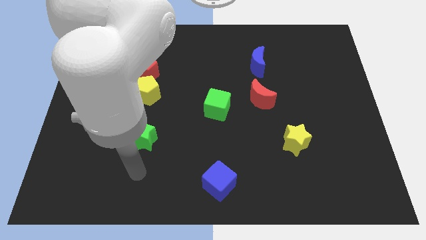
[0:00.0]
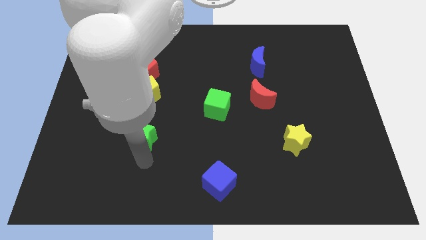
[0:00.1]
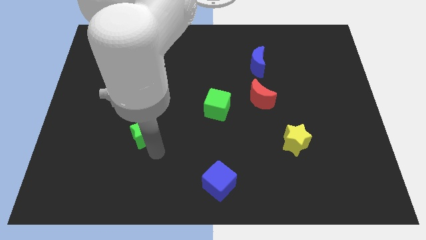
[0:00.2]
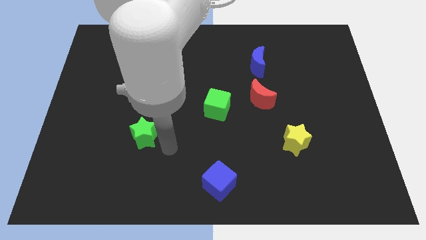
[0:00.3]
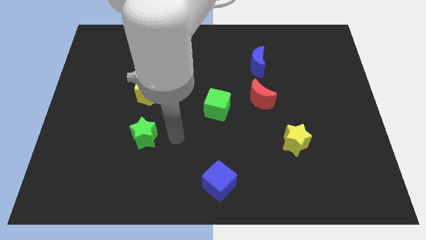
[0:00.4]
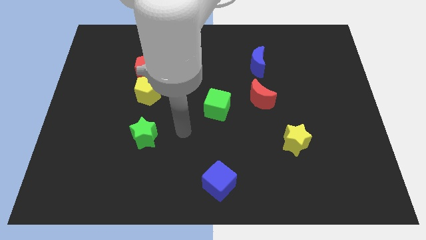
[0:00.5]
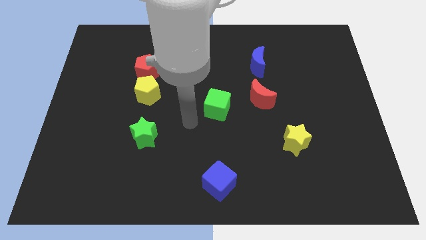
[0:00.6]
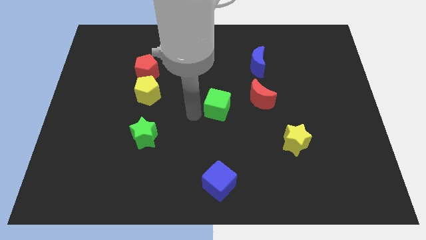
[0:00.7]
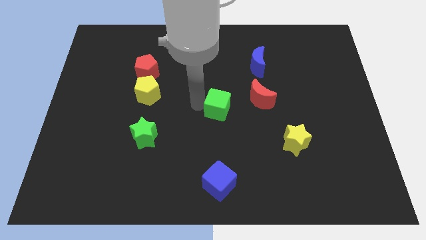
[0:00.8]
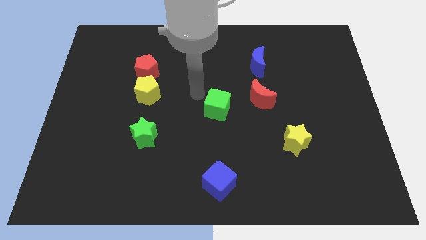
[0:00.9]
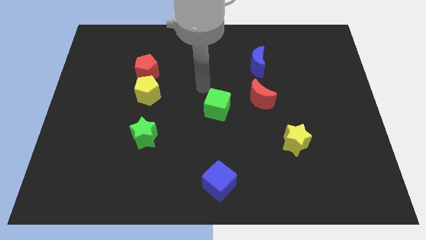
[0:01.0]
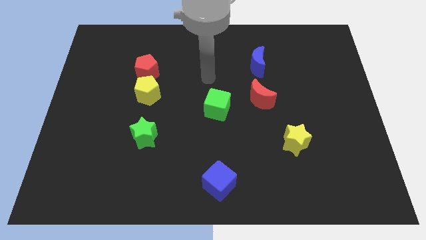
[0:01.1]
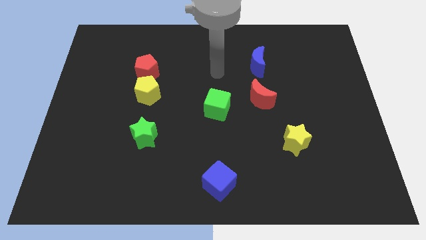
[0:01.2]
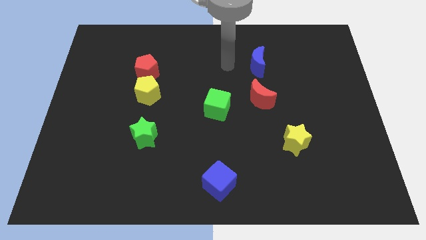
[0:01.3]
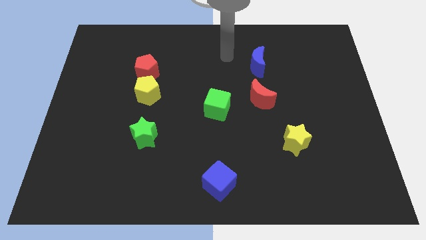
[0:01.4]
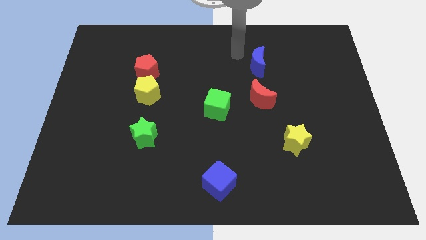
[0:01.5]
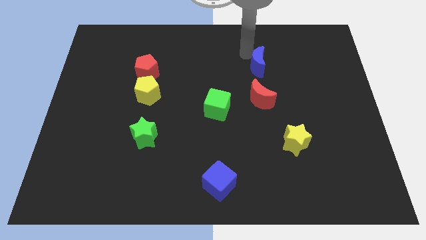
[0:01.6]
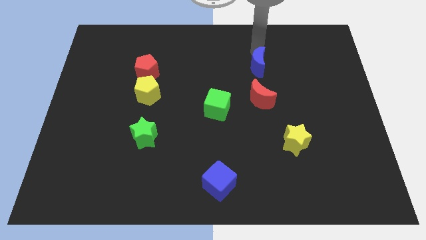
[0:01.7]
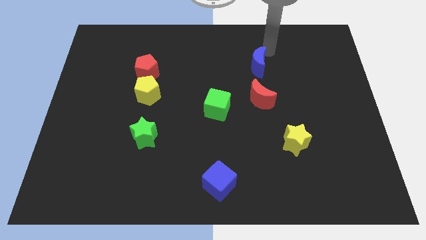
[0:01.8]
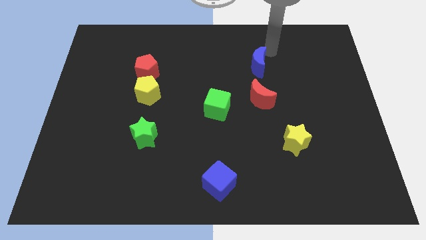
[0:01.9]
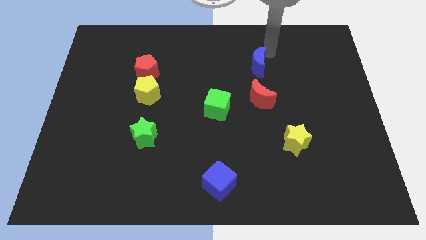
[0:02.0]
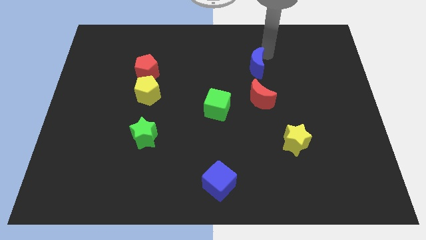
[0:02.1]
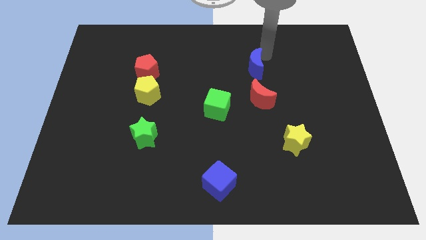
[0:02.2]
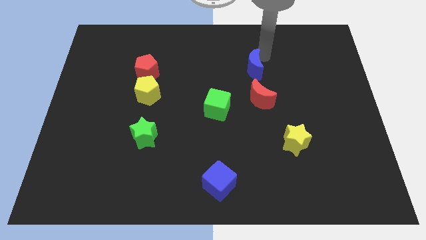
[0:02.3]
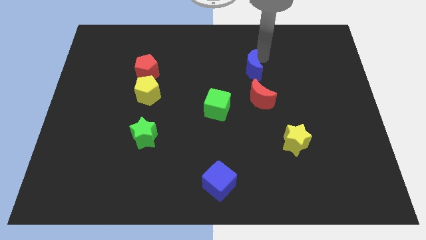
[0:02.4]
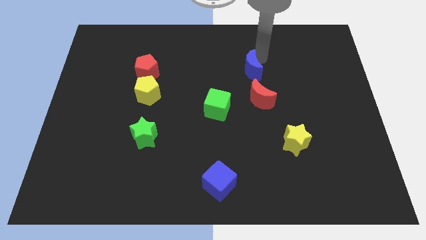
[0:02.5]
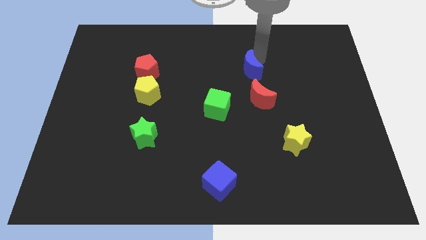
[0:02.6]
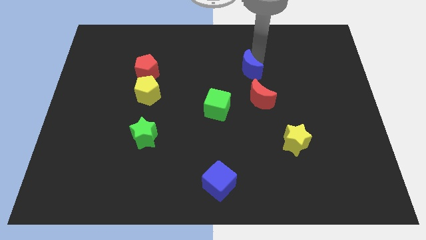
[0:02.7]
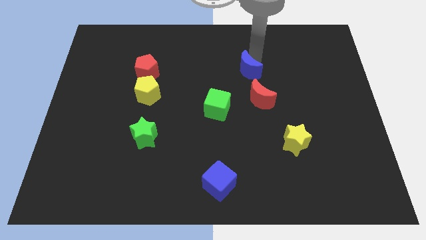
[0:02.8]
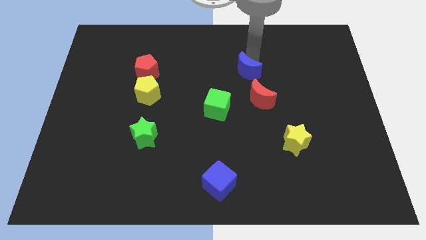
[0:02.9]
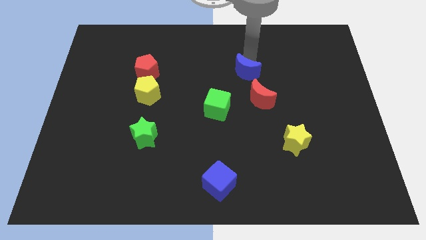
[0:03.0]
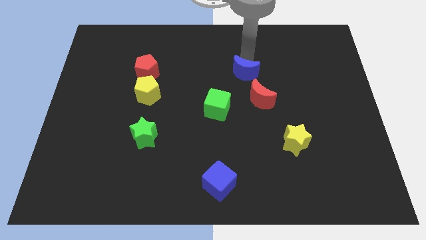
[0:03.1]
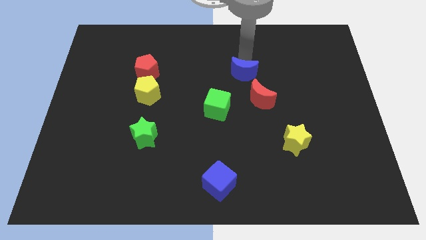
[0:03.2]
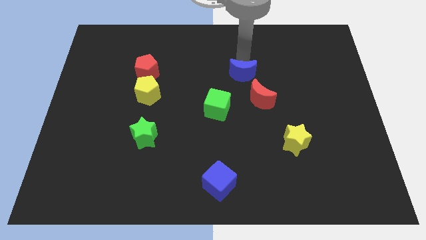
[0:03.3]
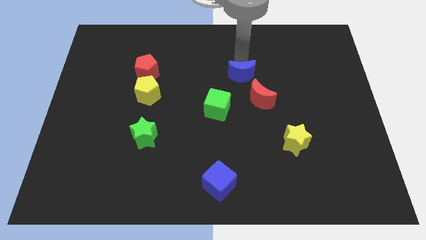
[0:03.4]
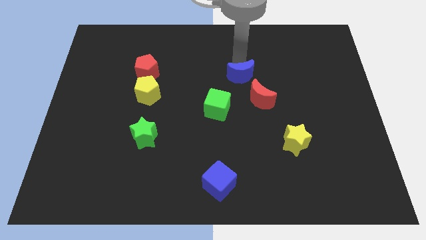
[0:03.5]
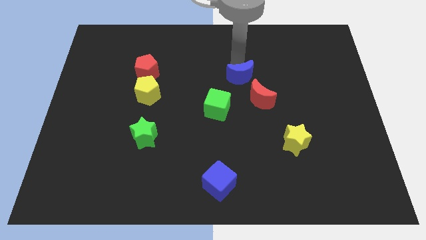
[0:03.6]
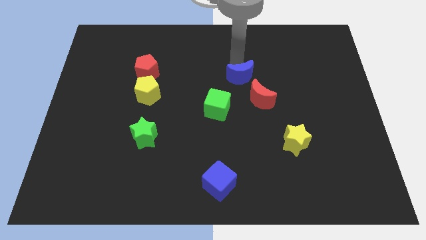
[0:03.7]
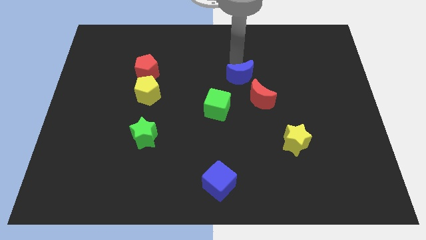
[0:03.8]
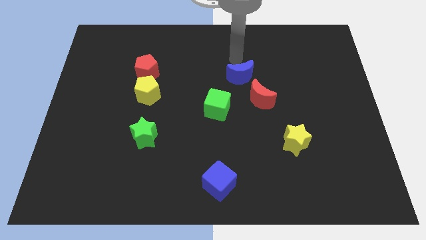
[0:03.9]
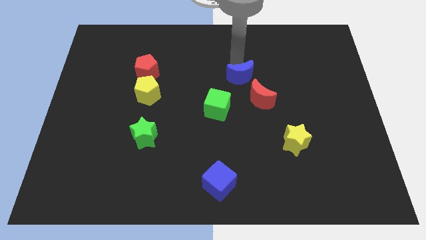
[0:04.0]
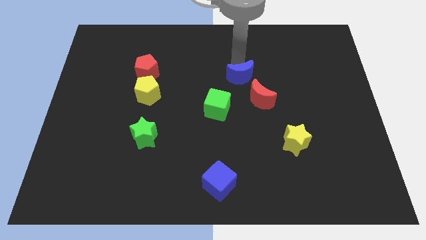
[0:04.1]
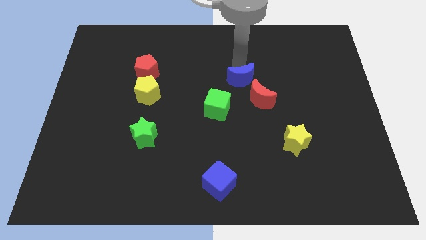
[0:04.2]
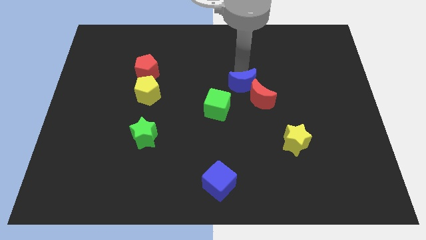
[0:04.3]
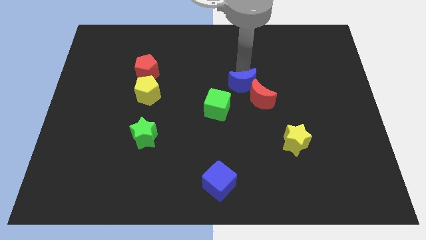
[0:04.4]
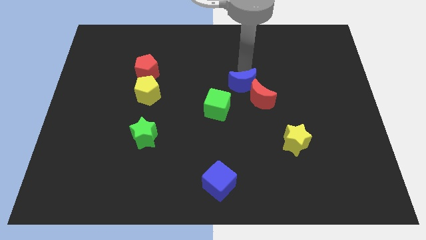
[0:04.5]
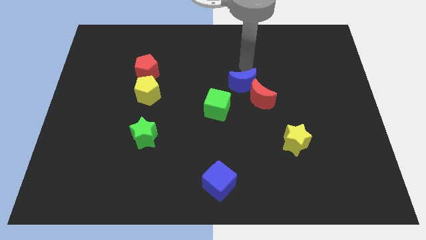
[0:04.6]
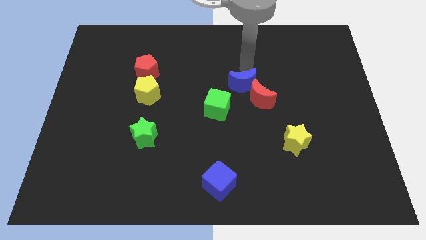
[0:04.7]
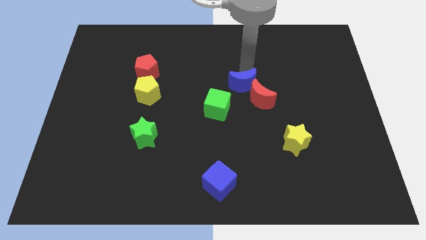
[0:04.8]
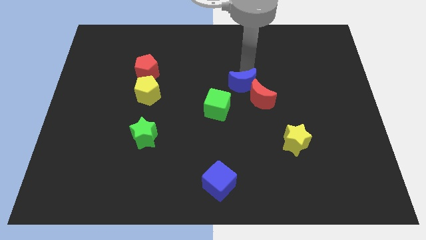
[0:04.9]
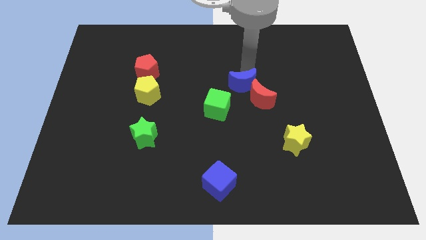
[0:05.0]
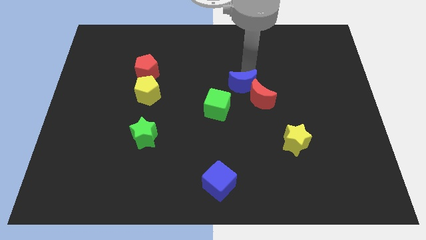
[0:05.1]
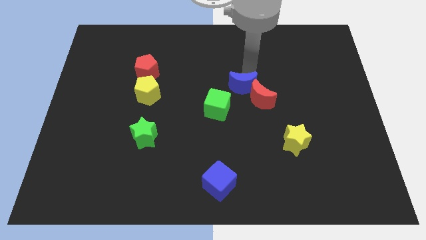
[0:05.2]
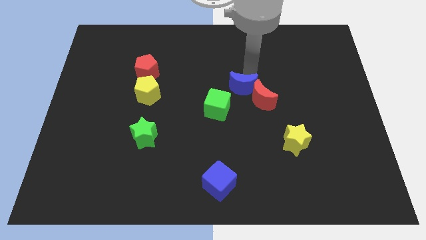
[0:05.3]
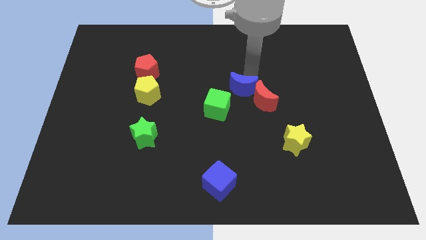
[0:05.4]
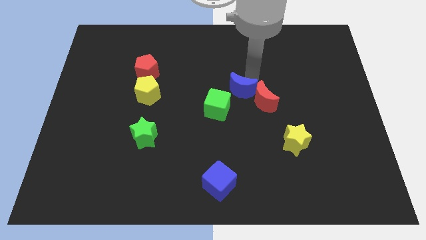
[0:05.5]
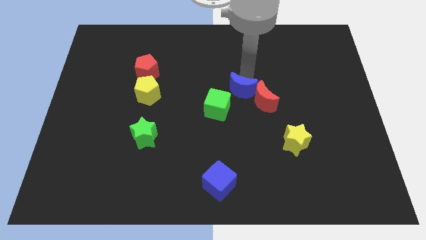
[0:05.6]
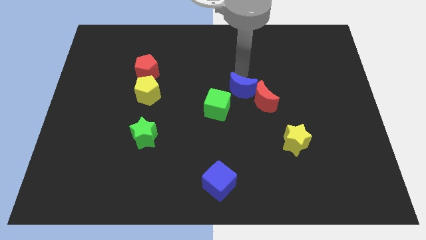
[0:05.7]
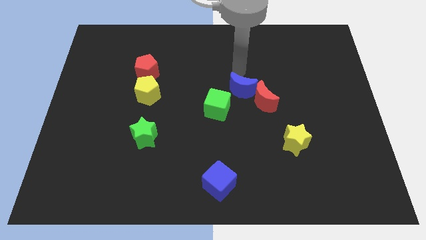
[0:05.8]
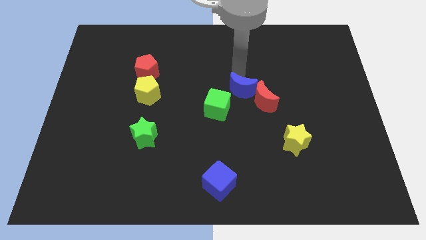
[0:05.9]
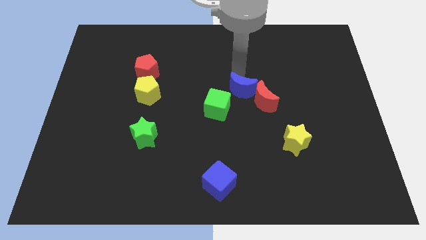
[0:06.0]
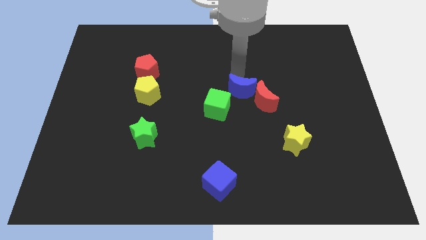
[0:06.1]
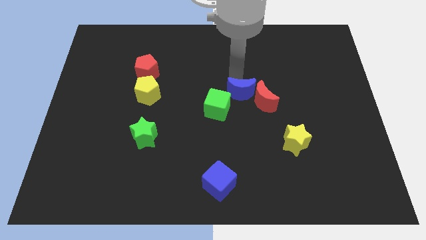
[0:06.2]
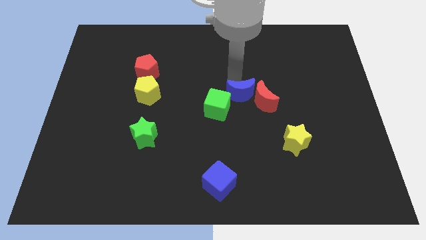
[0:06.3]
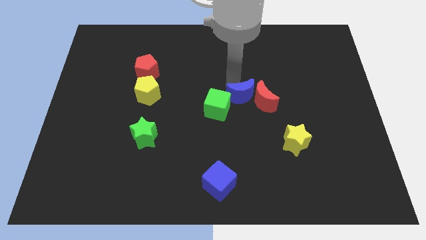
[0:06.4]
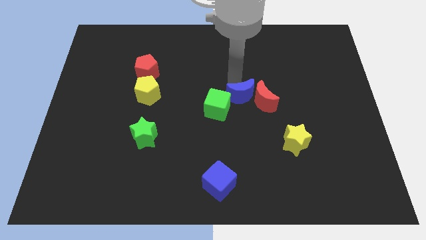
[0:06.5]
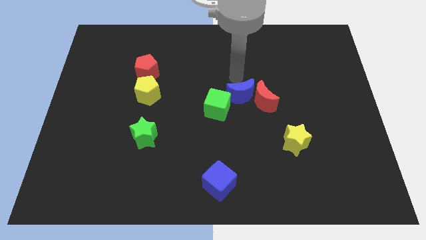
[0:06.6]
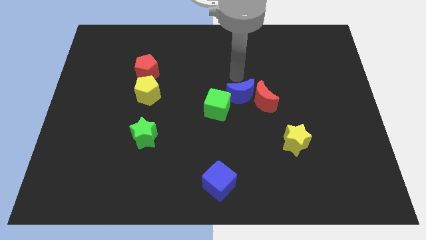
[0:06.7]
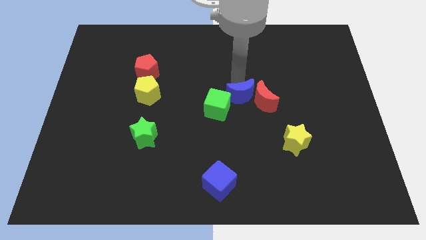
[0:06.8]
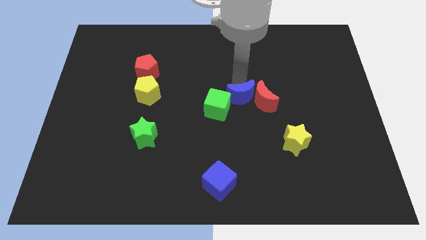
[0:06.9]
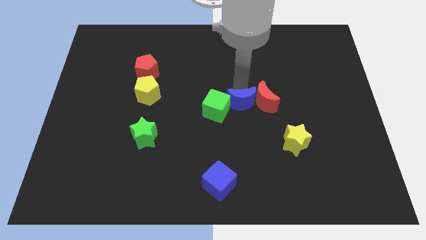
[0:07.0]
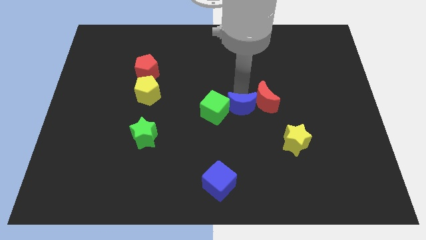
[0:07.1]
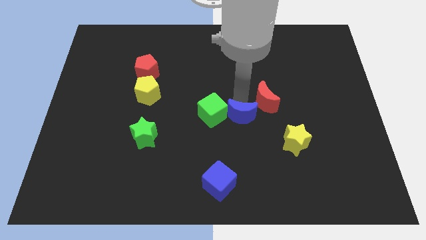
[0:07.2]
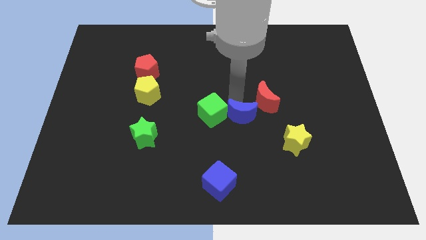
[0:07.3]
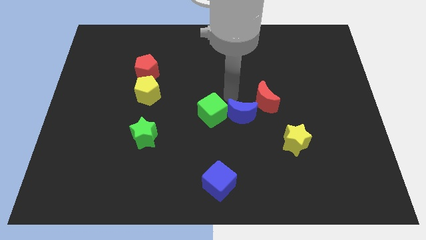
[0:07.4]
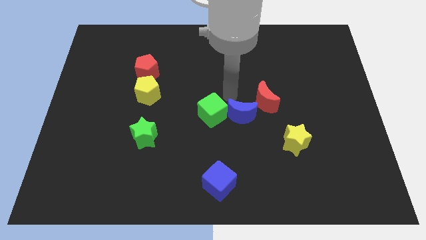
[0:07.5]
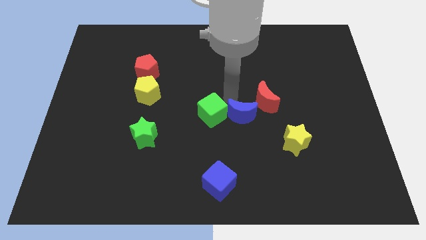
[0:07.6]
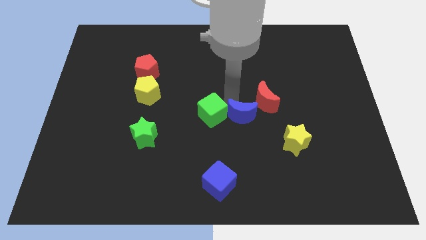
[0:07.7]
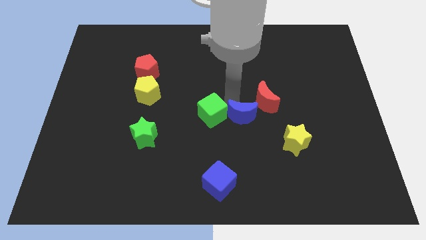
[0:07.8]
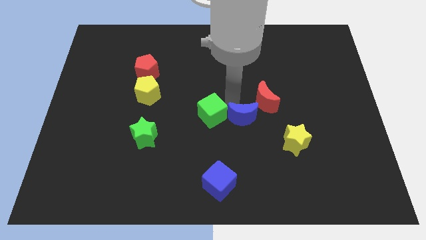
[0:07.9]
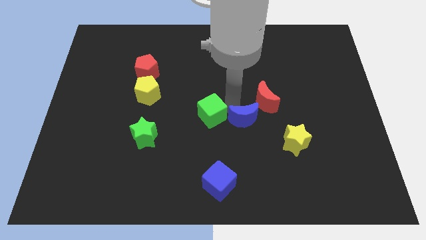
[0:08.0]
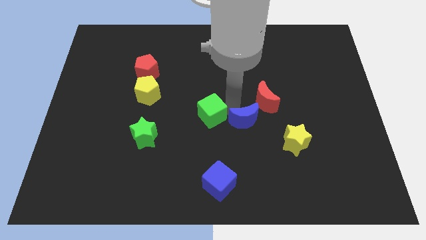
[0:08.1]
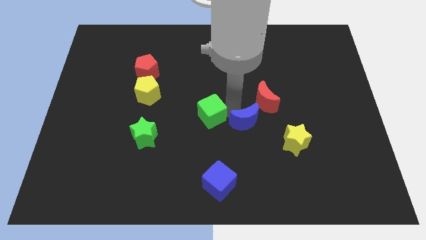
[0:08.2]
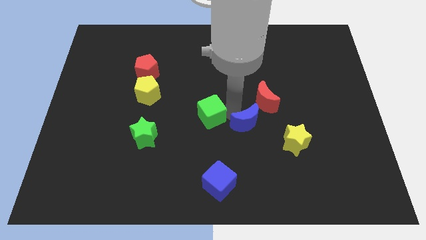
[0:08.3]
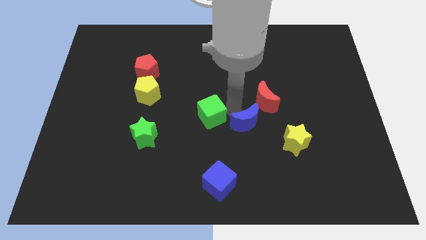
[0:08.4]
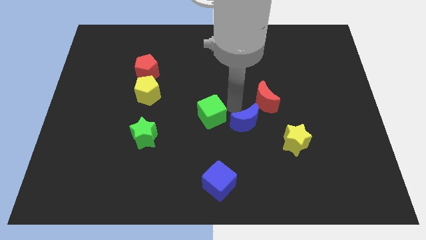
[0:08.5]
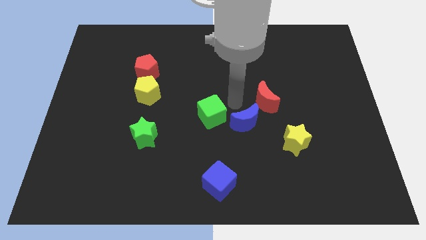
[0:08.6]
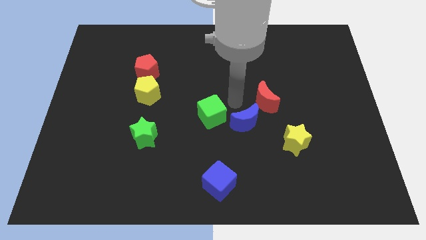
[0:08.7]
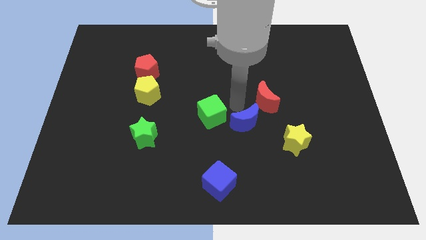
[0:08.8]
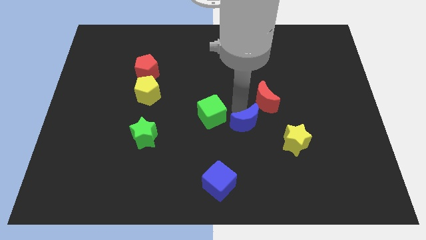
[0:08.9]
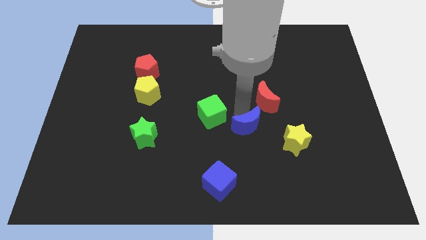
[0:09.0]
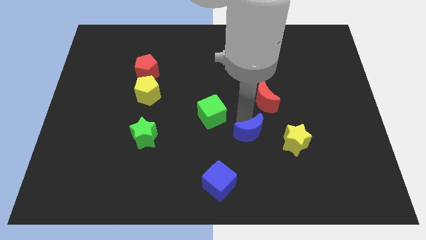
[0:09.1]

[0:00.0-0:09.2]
slide the blue moon downwards
